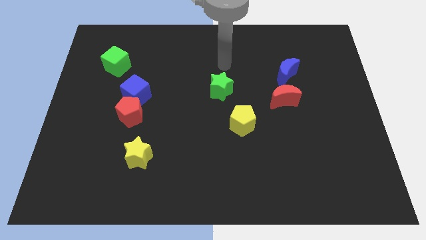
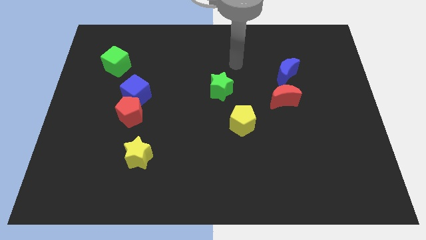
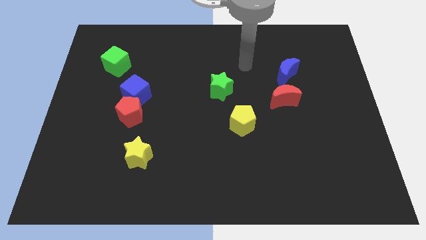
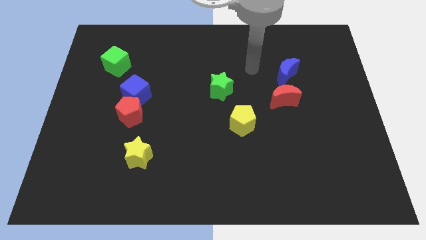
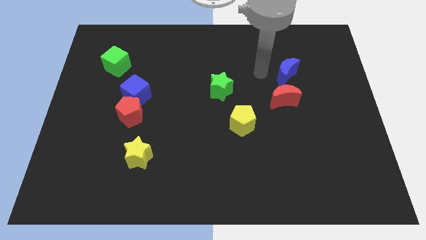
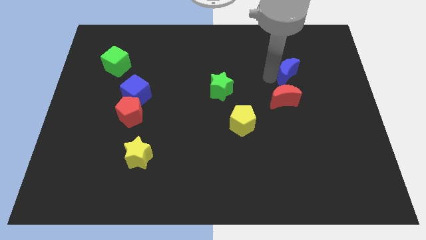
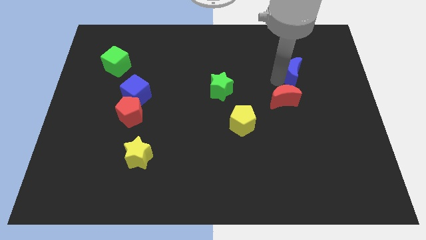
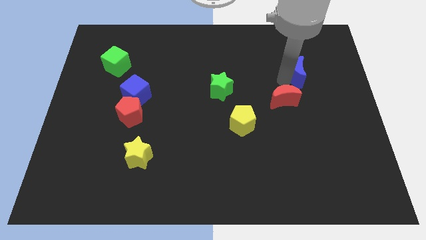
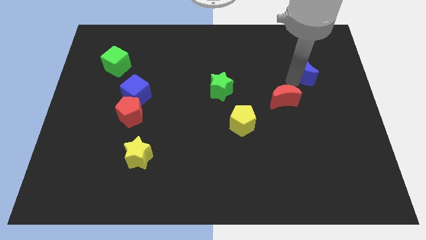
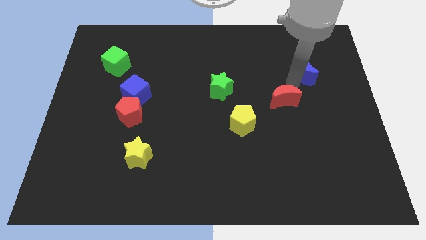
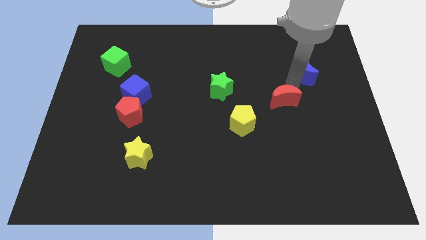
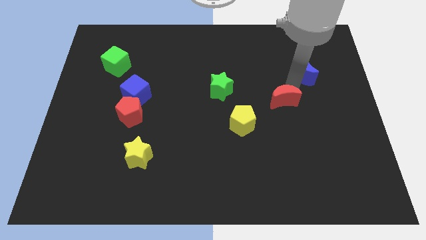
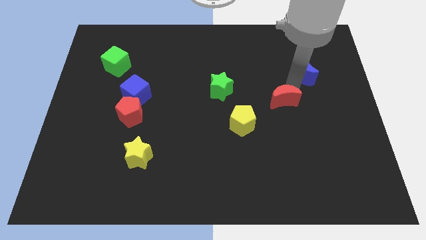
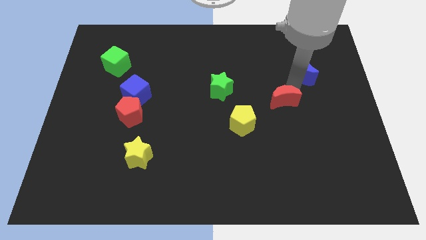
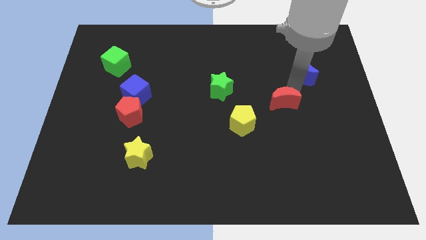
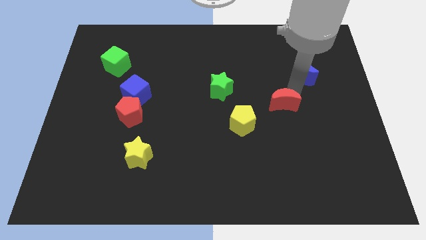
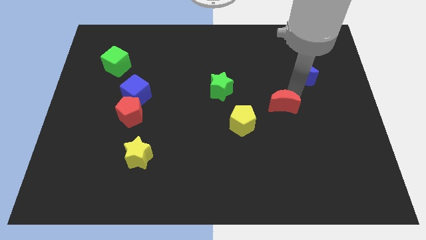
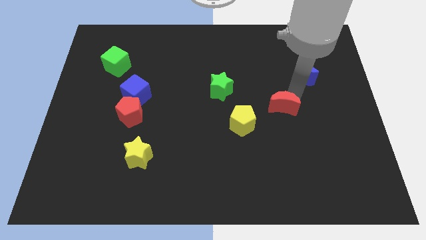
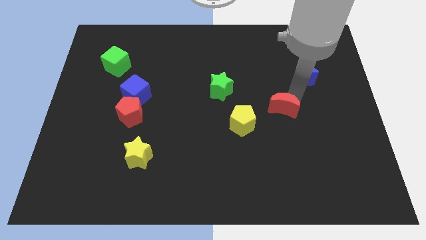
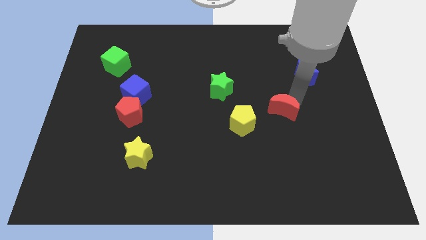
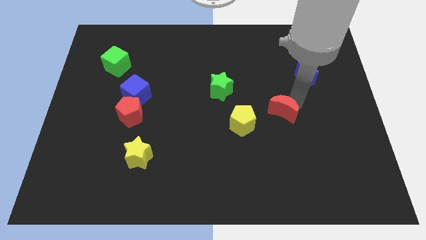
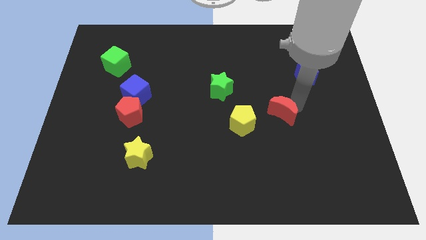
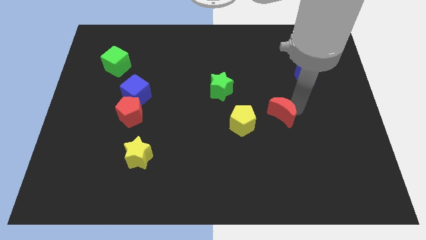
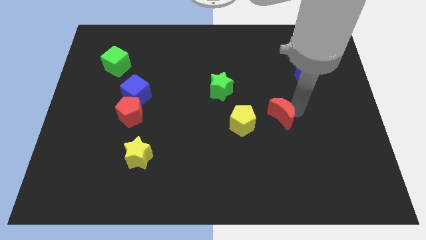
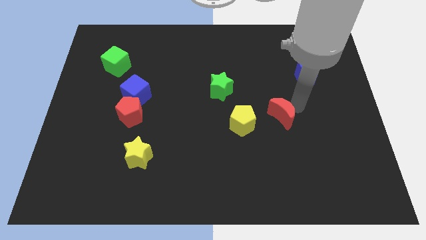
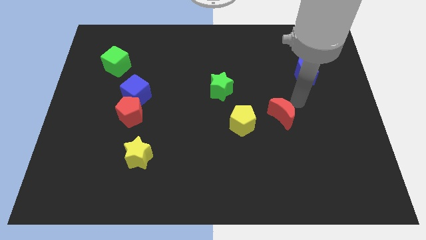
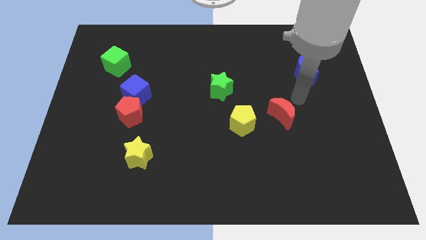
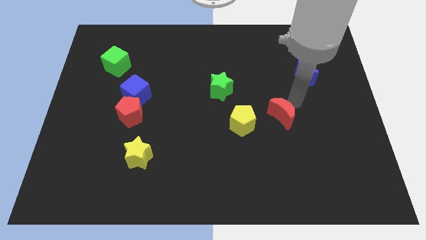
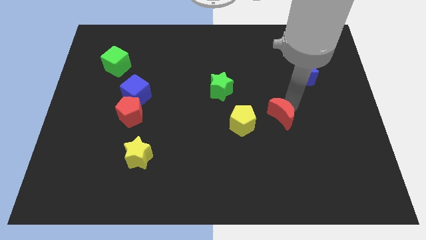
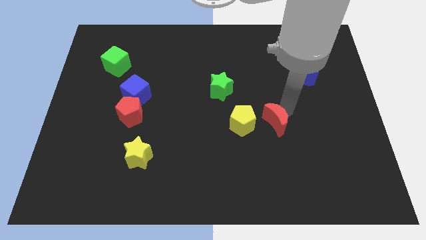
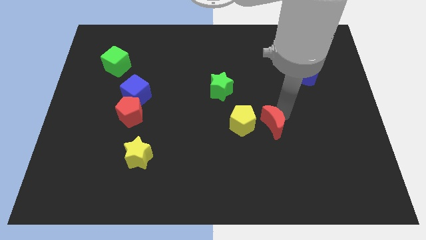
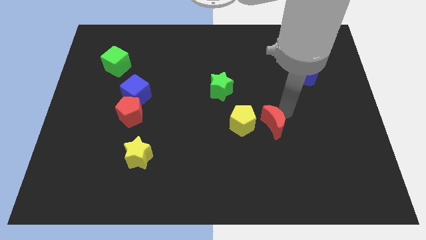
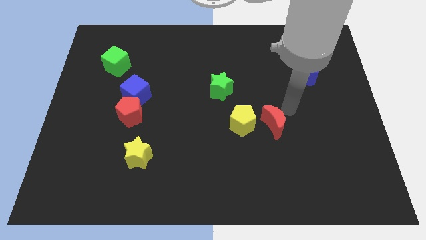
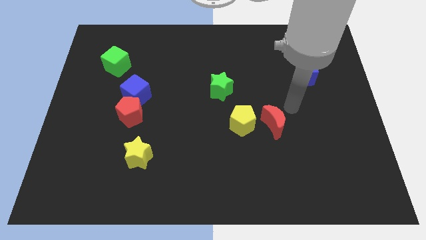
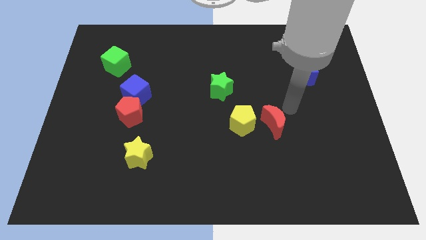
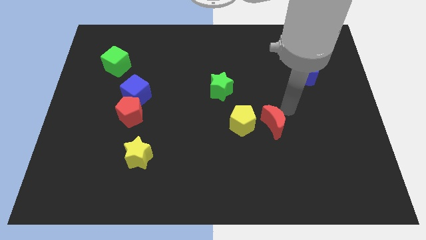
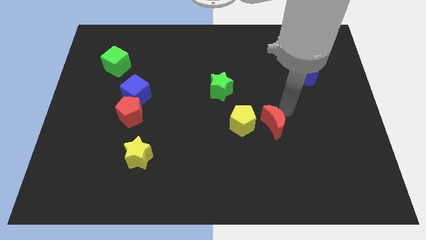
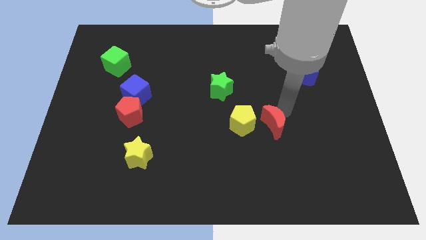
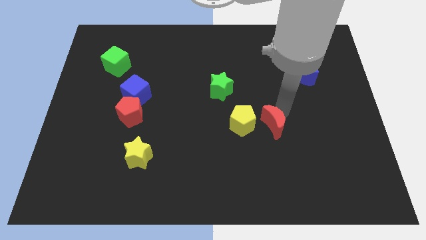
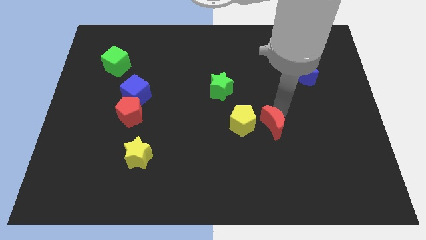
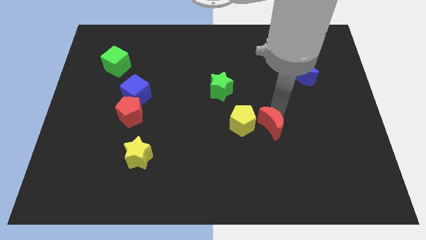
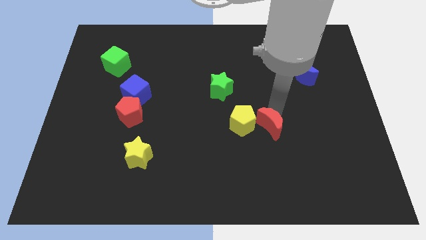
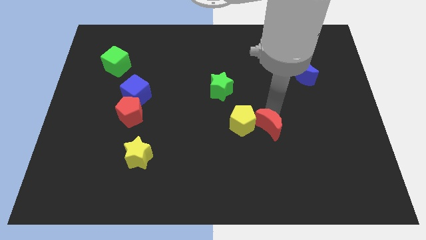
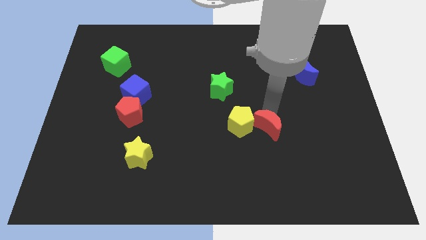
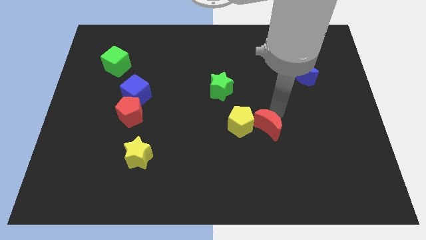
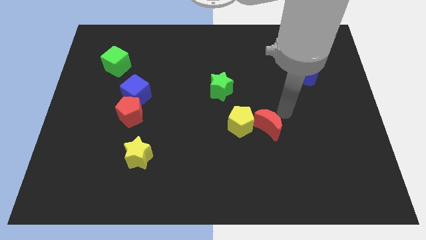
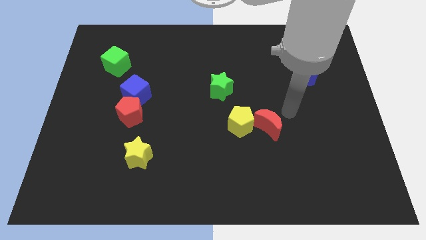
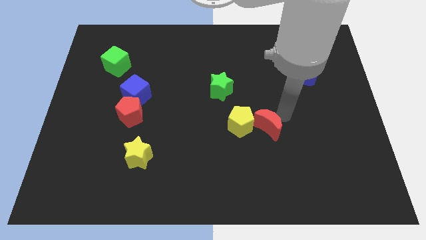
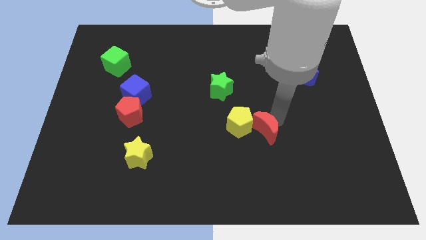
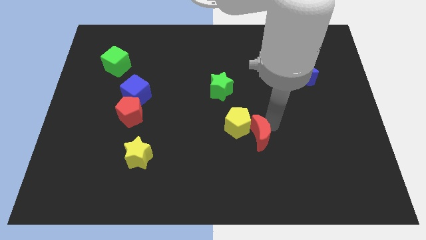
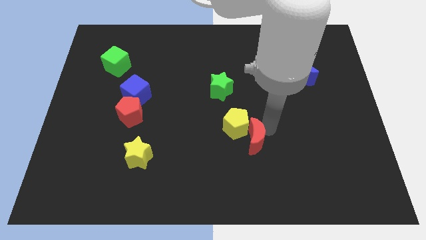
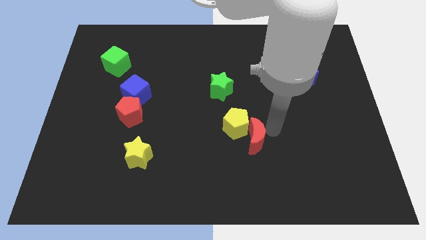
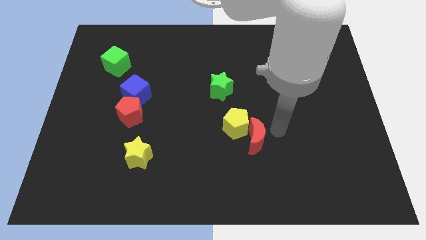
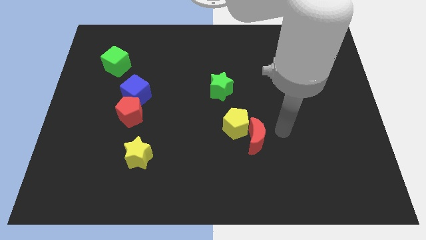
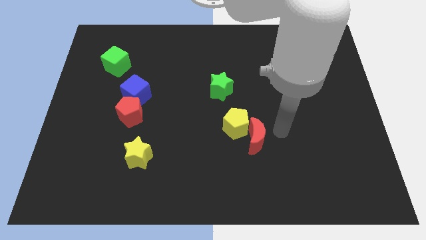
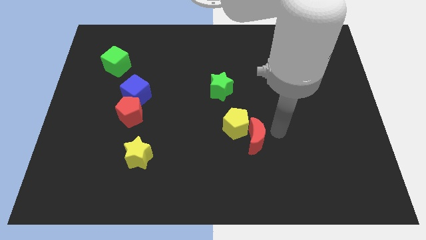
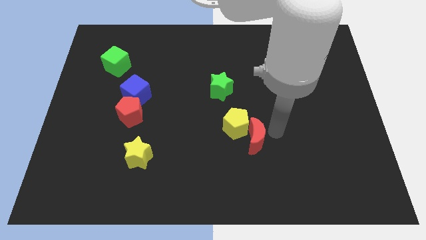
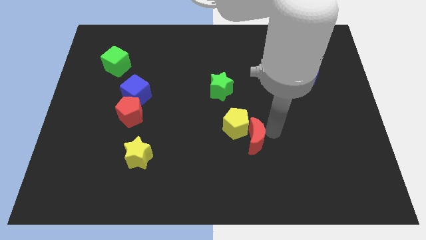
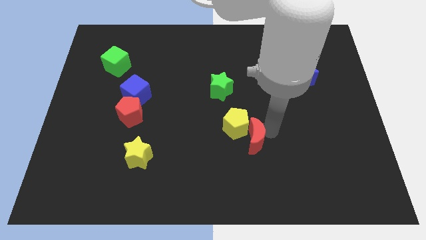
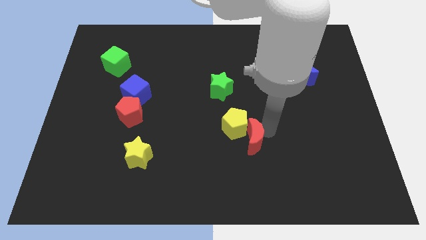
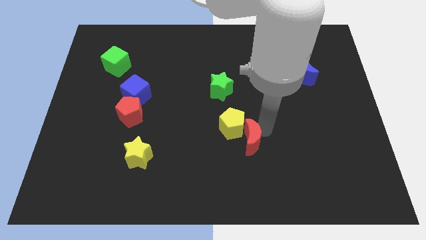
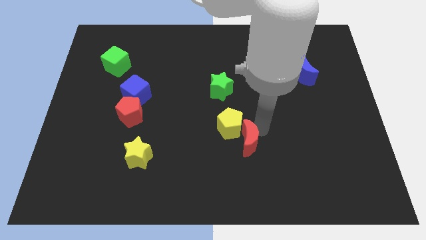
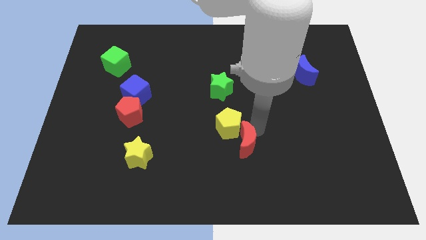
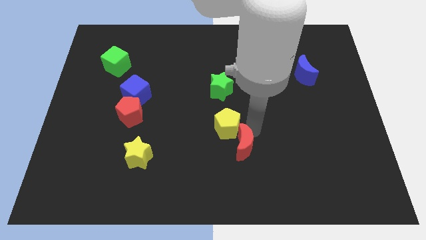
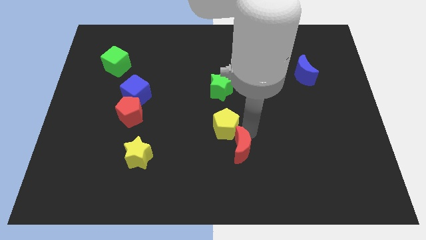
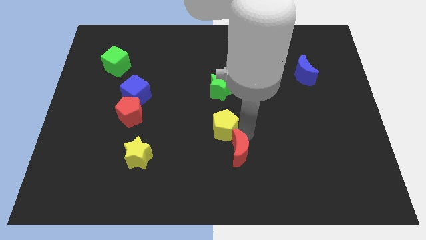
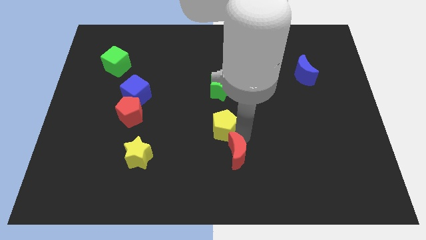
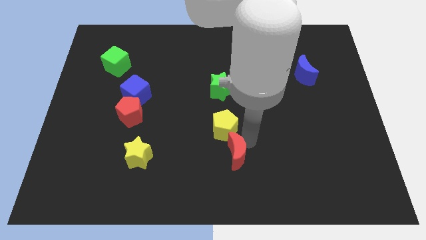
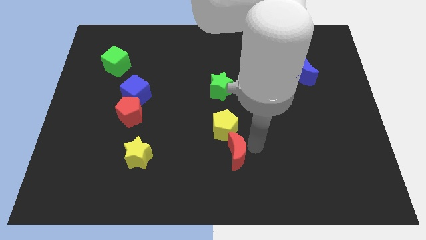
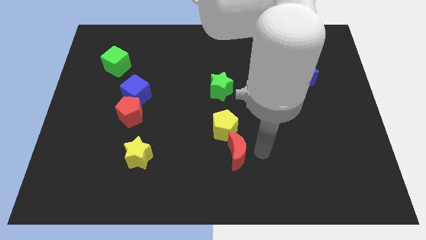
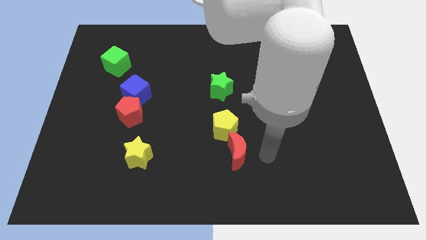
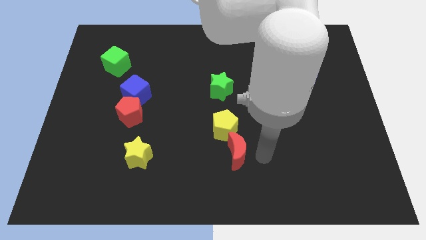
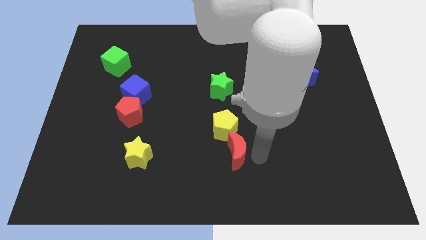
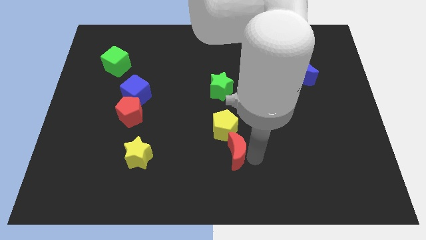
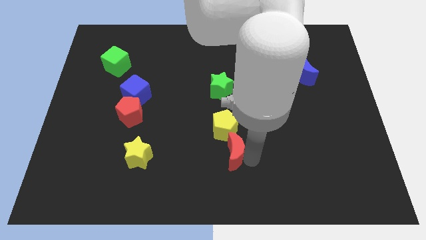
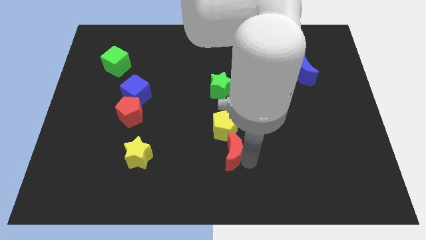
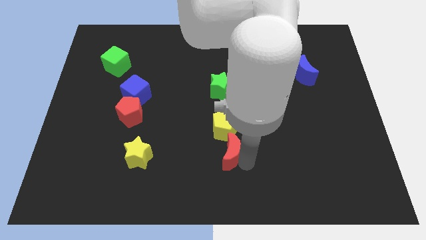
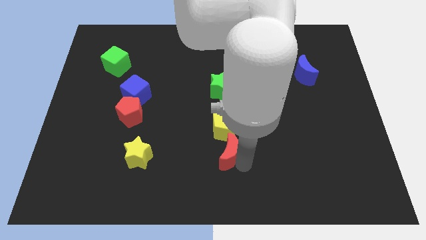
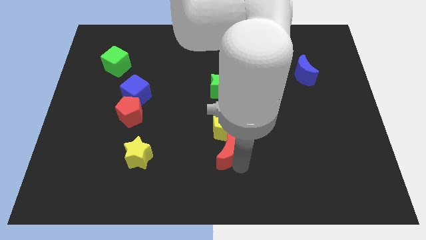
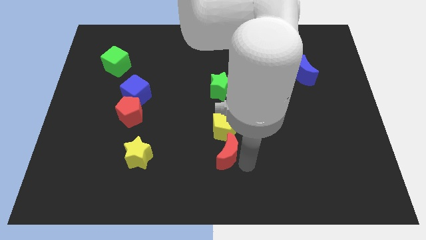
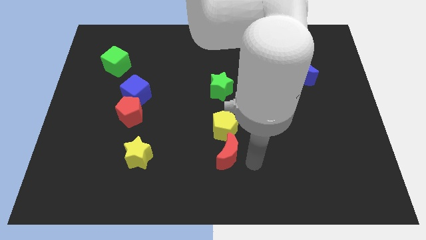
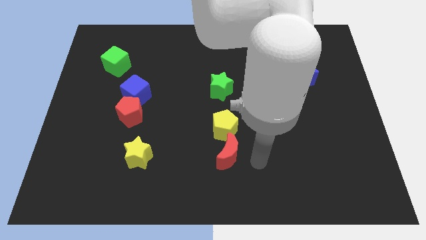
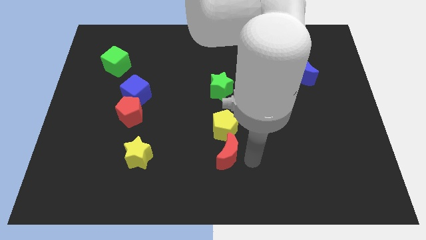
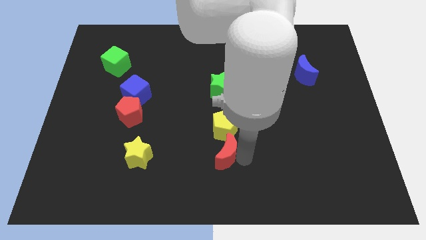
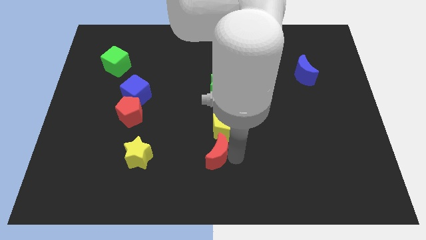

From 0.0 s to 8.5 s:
move the red moon to the bottom left side of the yellow pentagon
